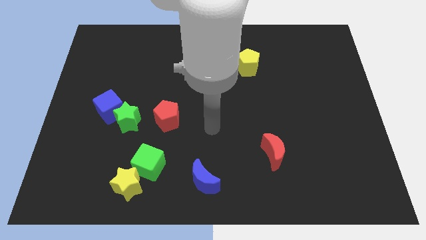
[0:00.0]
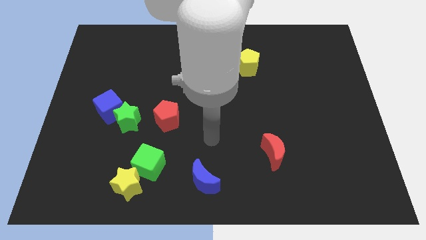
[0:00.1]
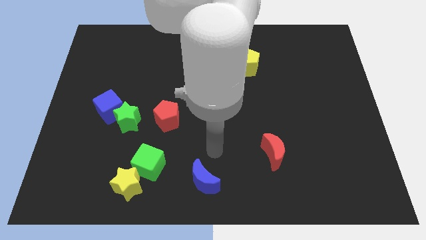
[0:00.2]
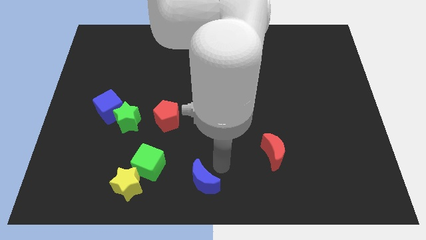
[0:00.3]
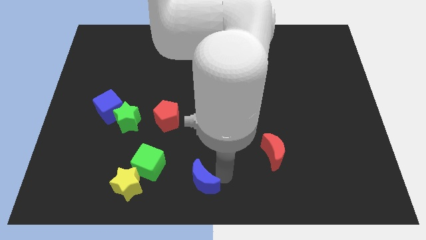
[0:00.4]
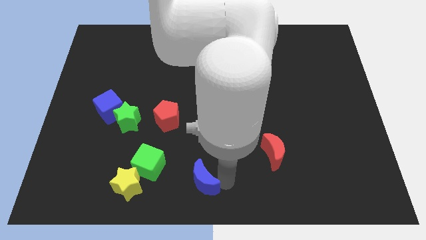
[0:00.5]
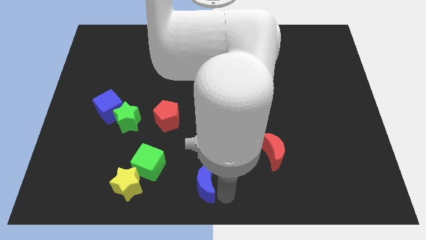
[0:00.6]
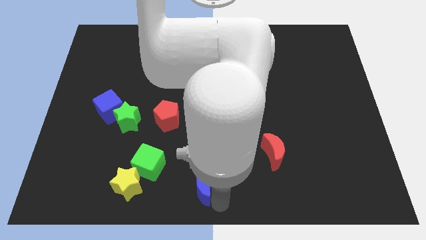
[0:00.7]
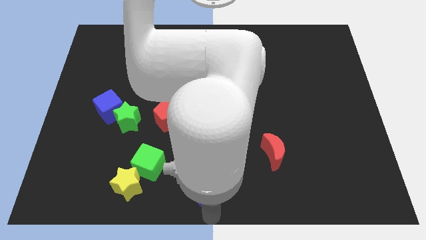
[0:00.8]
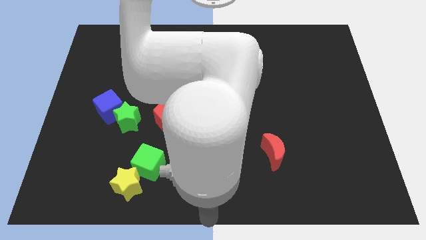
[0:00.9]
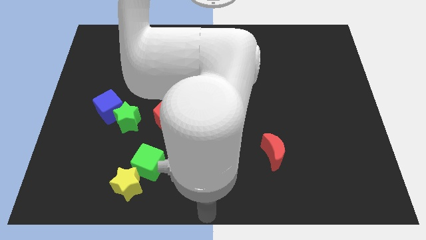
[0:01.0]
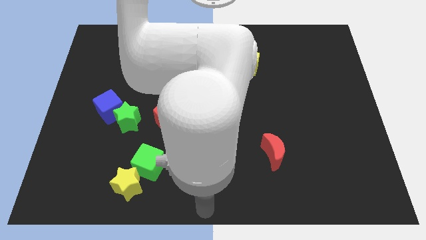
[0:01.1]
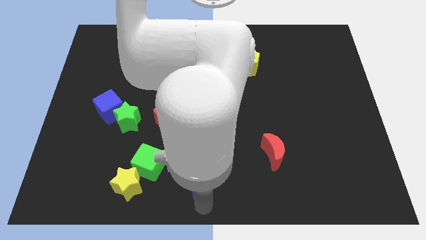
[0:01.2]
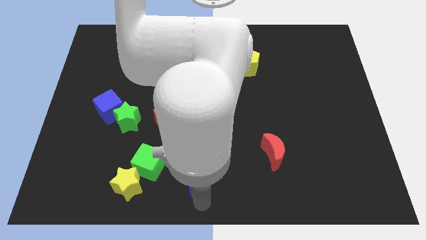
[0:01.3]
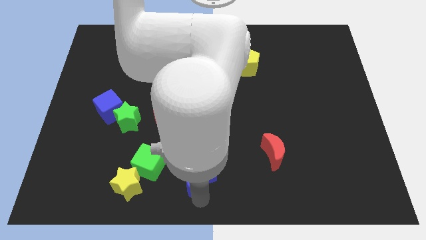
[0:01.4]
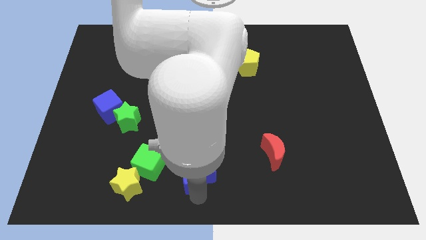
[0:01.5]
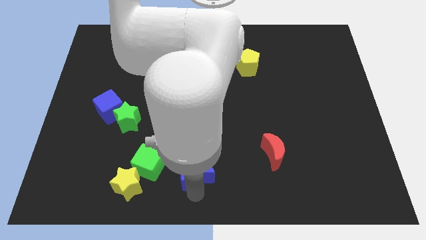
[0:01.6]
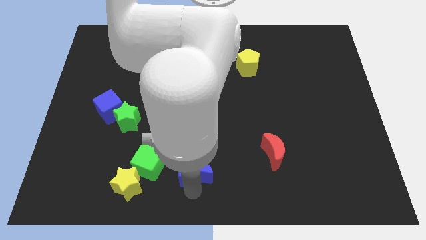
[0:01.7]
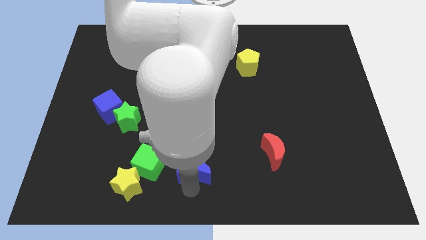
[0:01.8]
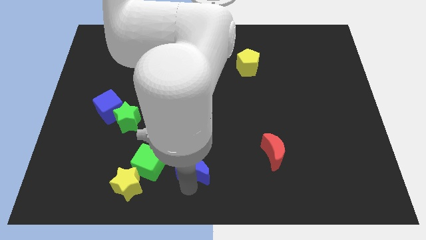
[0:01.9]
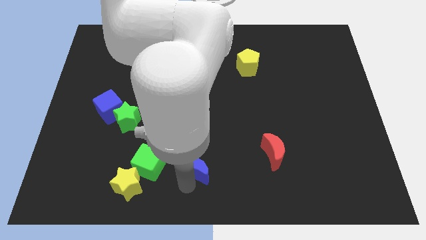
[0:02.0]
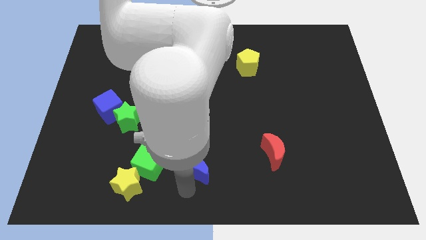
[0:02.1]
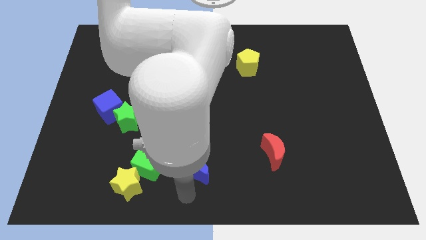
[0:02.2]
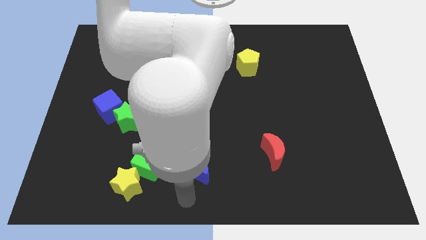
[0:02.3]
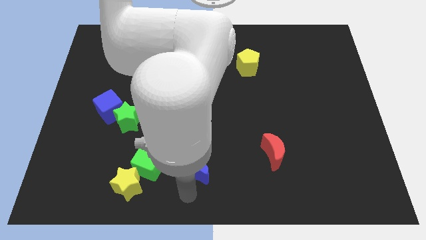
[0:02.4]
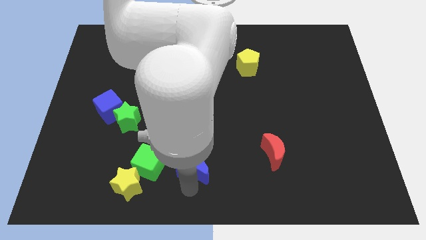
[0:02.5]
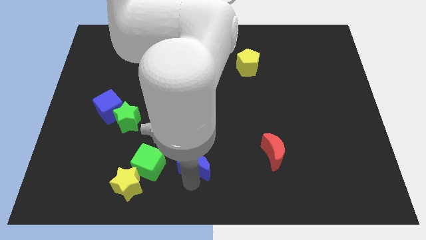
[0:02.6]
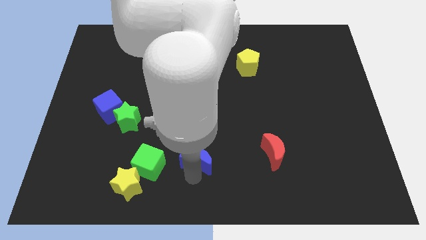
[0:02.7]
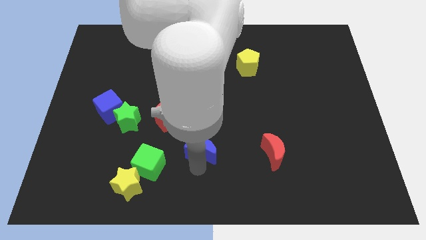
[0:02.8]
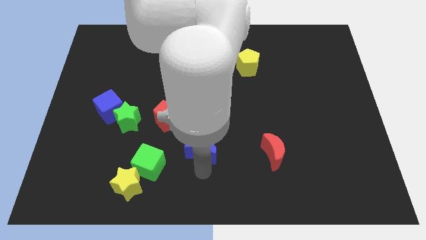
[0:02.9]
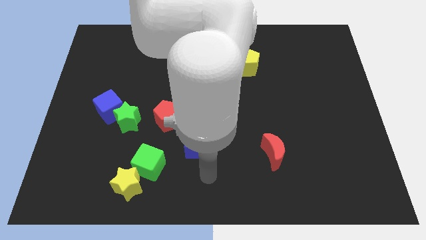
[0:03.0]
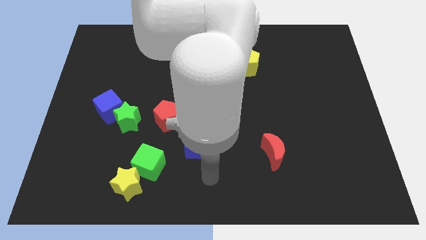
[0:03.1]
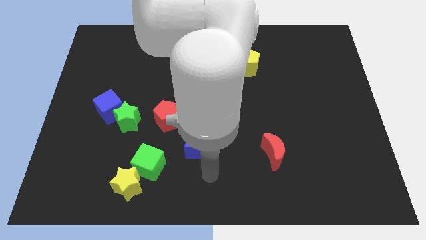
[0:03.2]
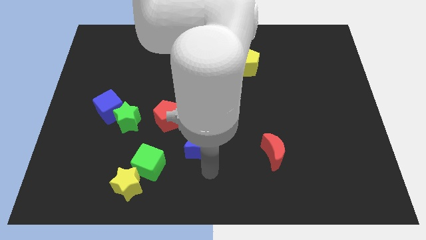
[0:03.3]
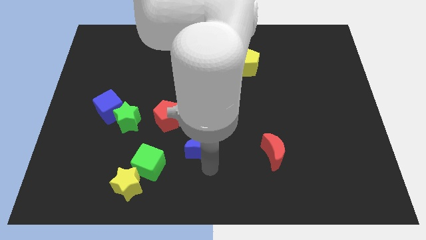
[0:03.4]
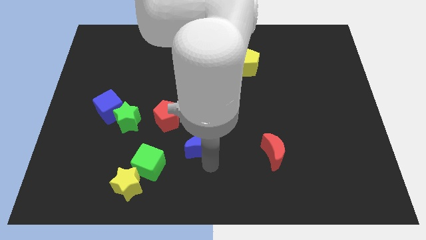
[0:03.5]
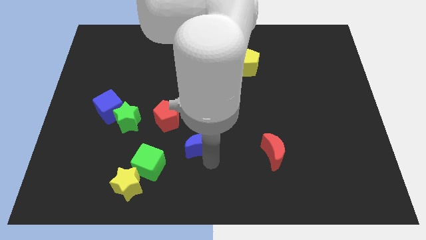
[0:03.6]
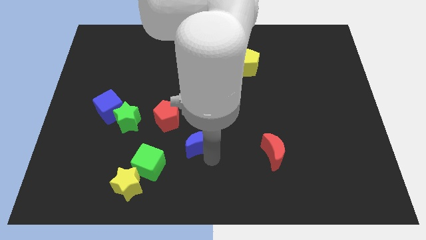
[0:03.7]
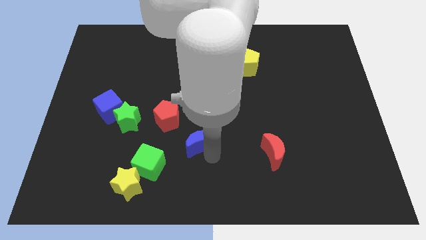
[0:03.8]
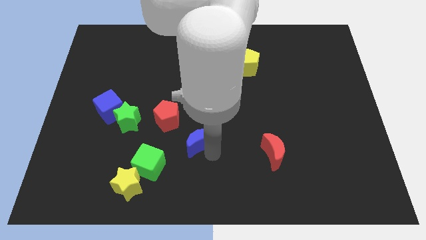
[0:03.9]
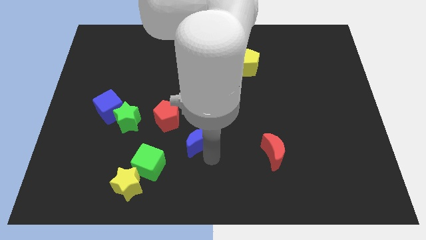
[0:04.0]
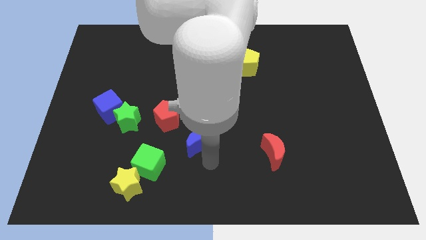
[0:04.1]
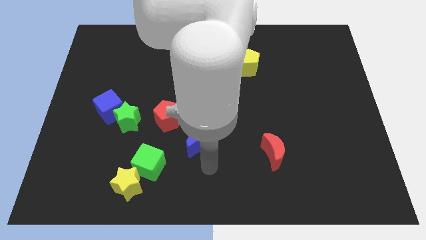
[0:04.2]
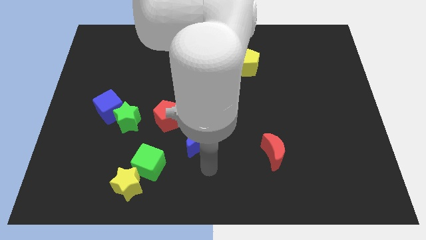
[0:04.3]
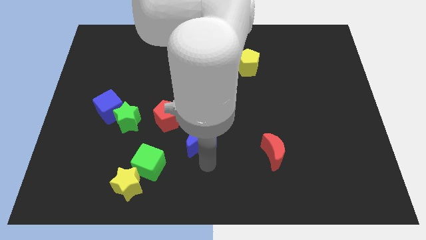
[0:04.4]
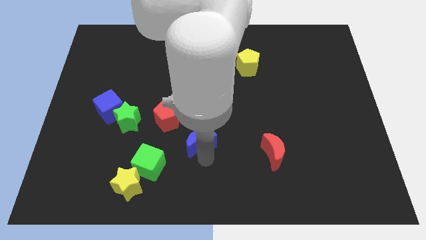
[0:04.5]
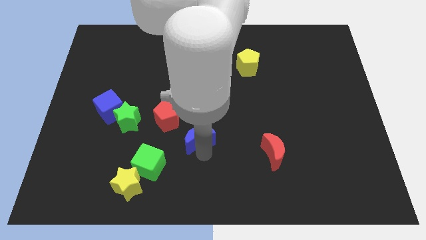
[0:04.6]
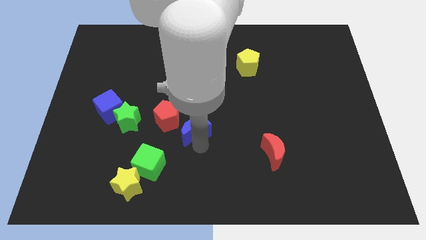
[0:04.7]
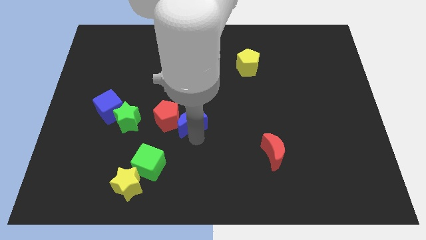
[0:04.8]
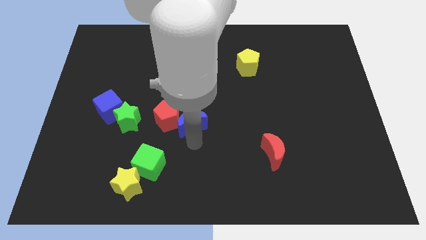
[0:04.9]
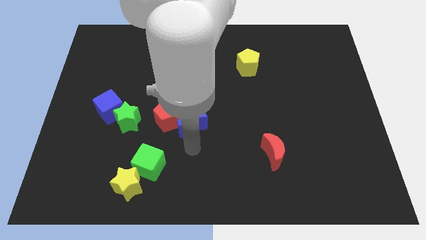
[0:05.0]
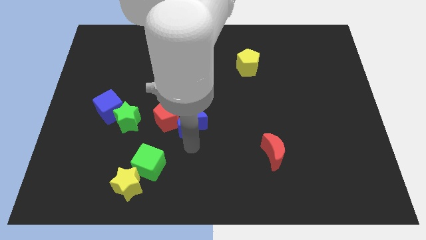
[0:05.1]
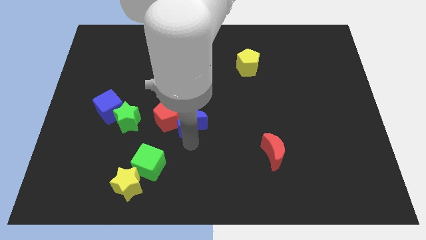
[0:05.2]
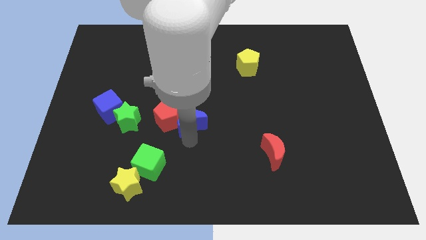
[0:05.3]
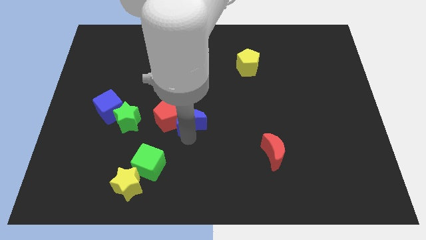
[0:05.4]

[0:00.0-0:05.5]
move the blue moon to the top right of the red pentagon

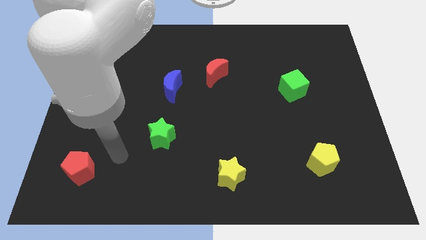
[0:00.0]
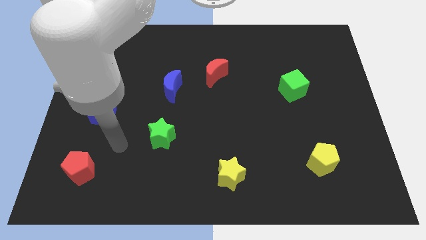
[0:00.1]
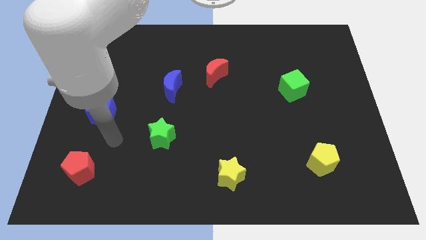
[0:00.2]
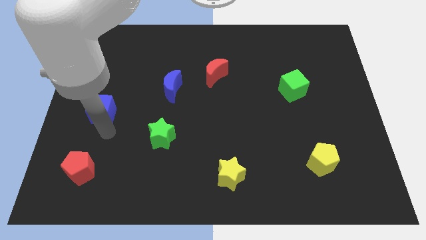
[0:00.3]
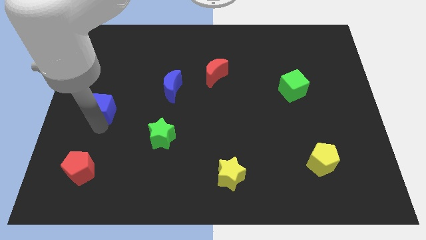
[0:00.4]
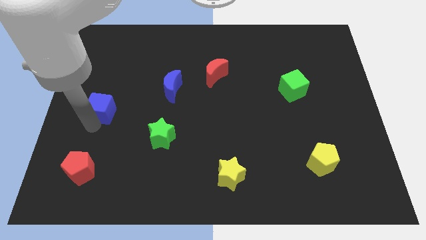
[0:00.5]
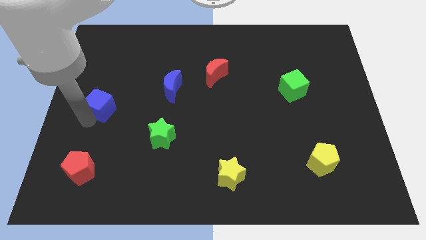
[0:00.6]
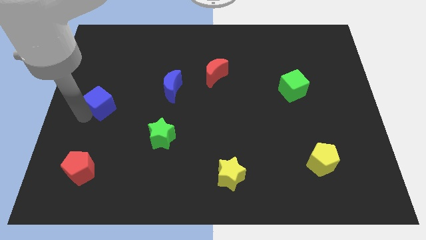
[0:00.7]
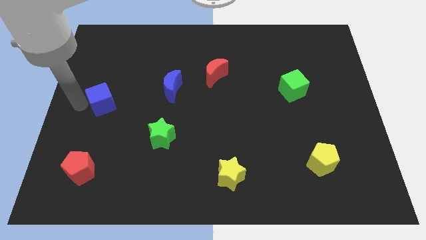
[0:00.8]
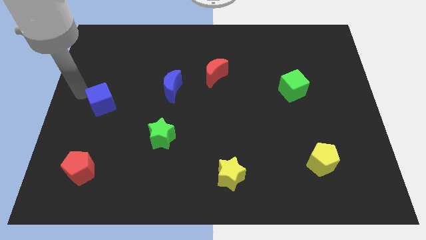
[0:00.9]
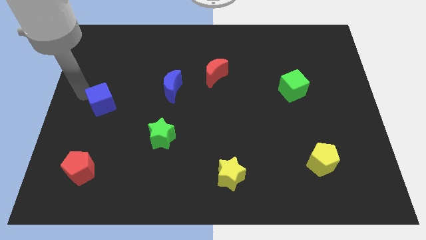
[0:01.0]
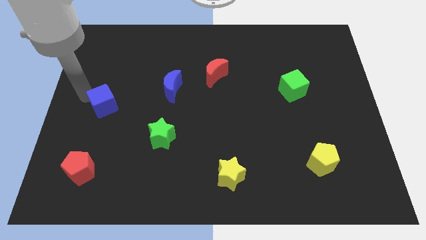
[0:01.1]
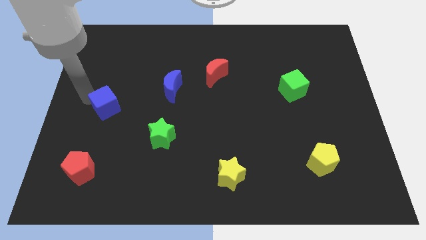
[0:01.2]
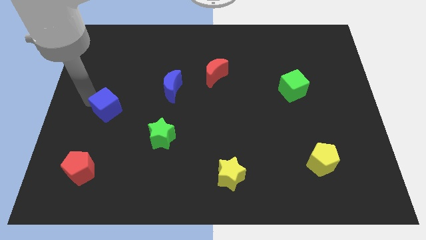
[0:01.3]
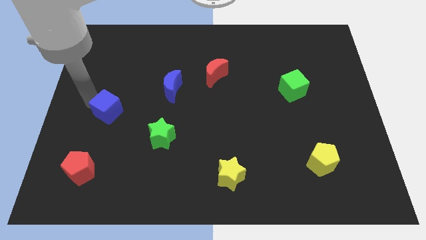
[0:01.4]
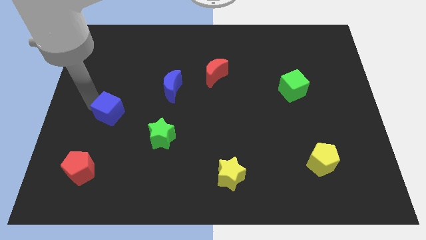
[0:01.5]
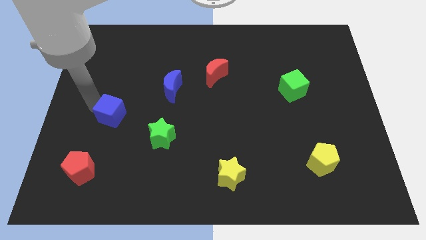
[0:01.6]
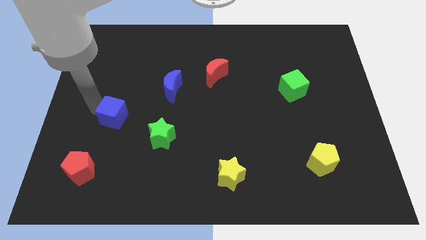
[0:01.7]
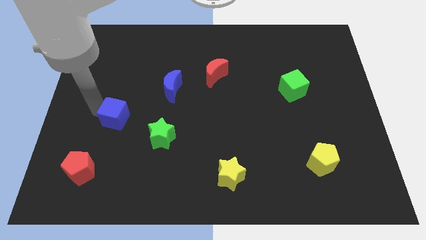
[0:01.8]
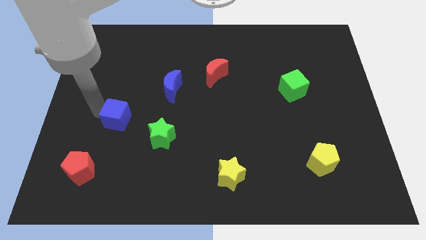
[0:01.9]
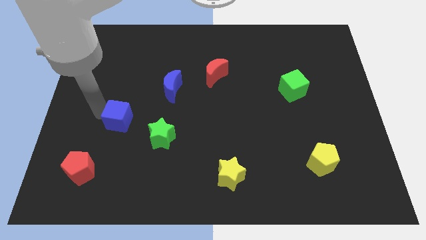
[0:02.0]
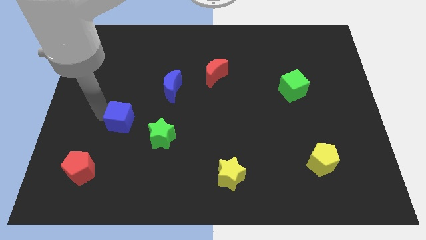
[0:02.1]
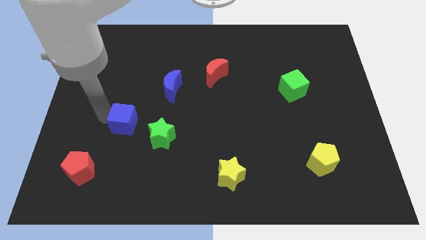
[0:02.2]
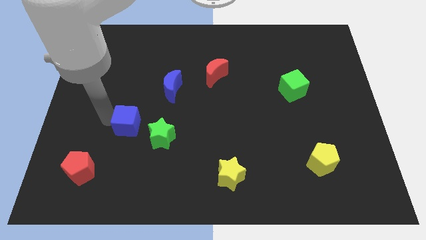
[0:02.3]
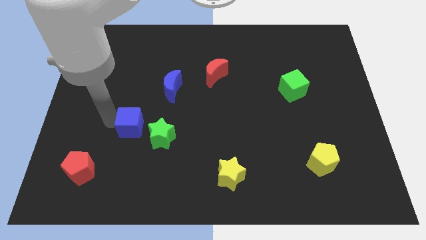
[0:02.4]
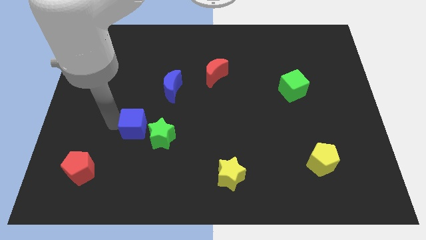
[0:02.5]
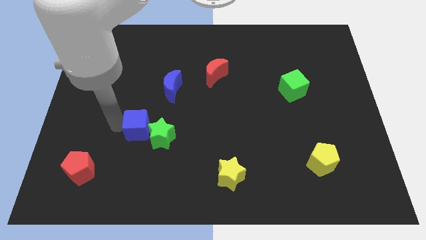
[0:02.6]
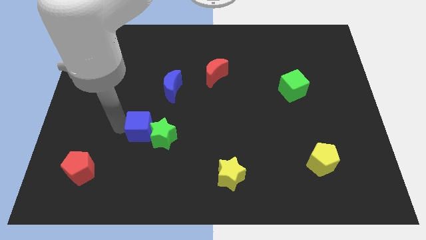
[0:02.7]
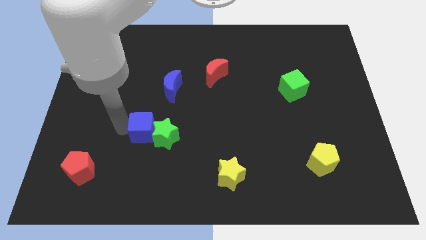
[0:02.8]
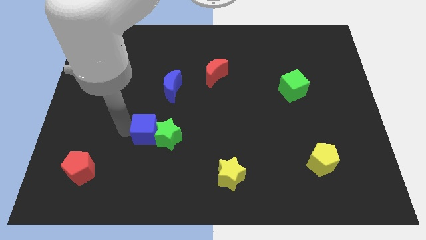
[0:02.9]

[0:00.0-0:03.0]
push the blue cube to the bottom side of the blue moon
